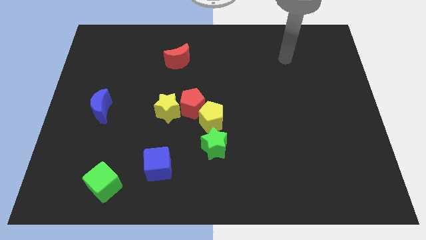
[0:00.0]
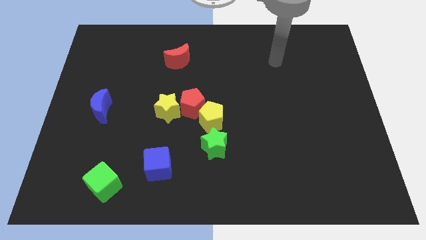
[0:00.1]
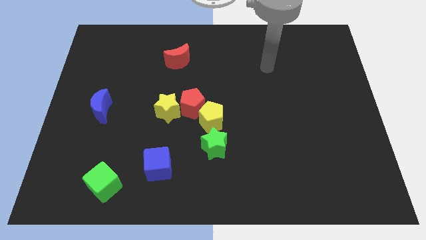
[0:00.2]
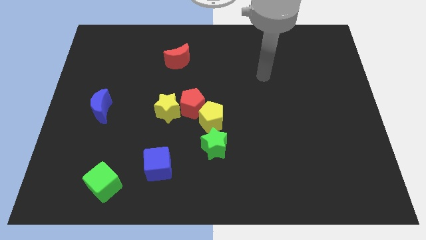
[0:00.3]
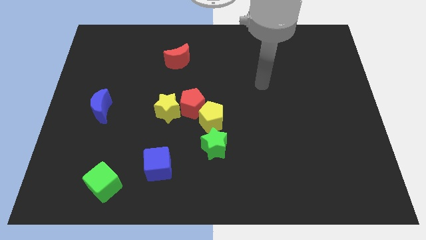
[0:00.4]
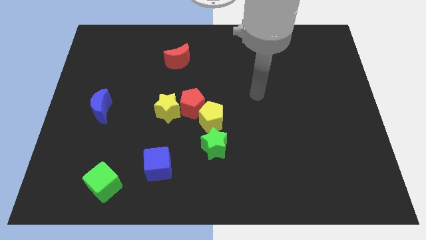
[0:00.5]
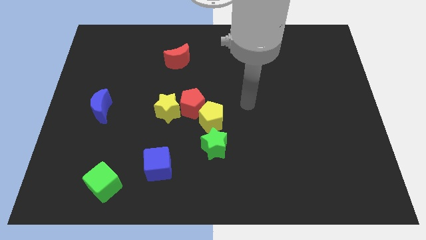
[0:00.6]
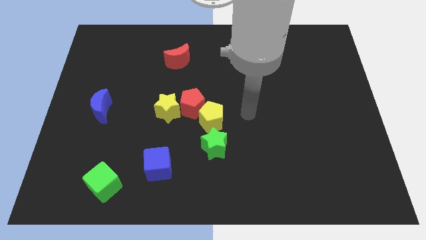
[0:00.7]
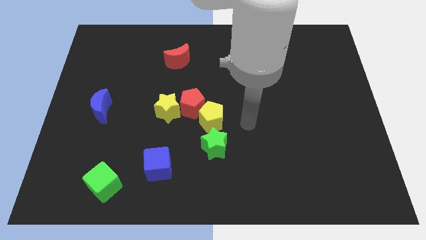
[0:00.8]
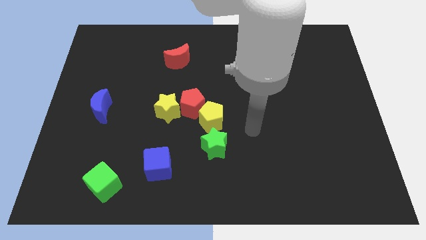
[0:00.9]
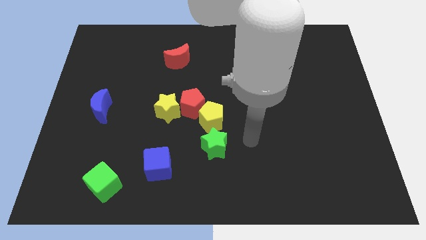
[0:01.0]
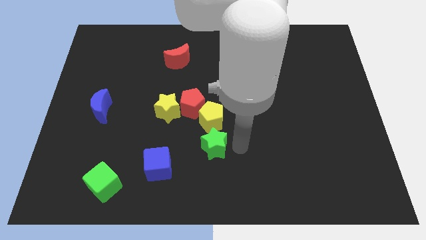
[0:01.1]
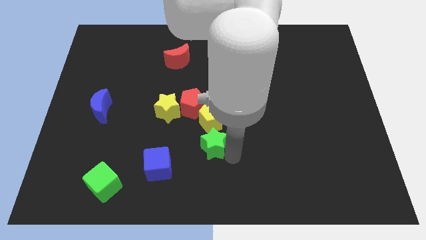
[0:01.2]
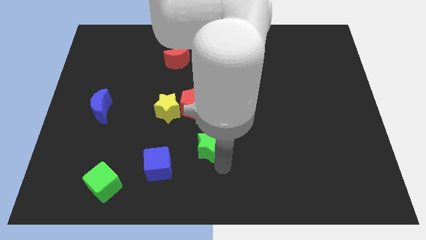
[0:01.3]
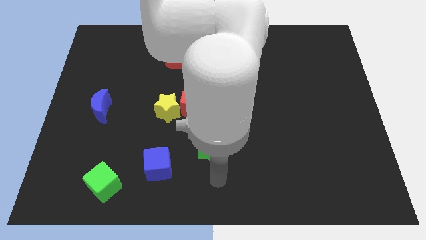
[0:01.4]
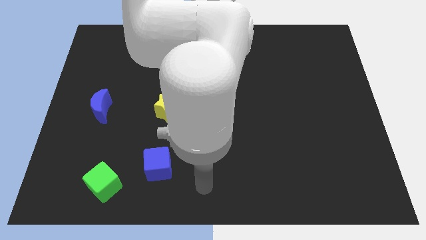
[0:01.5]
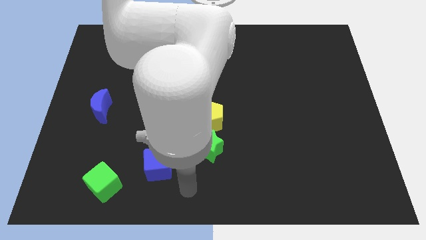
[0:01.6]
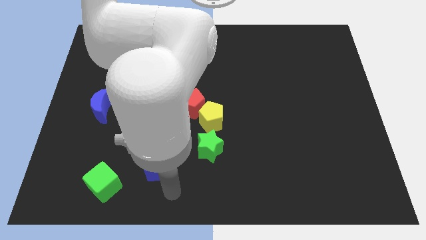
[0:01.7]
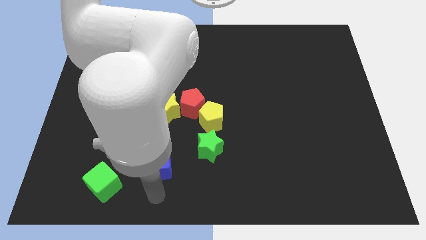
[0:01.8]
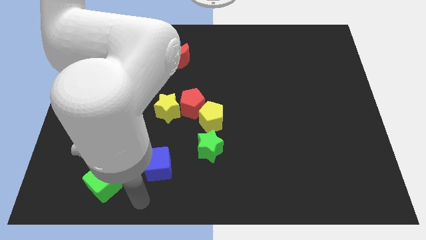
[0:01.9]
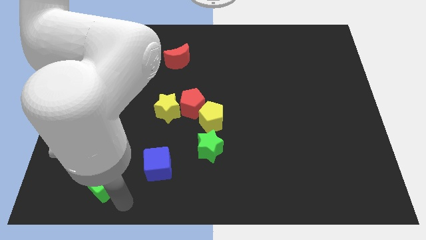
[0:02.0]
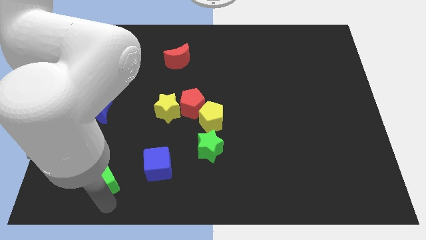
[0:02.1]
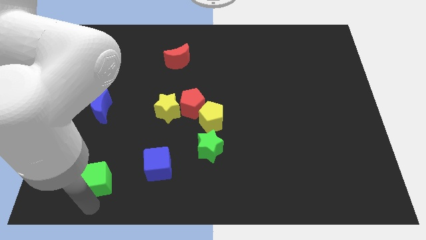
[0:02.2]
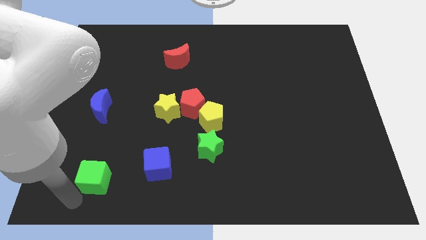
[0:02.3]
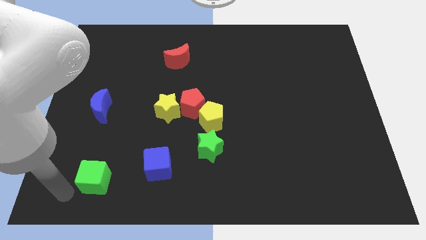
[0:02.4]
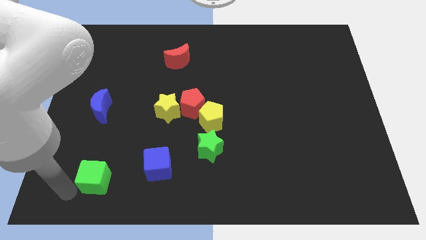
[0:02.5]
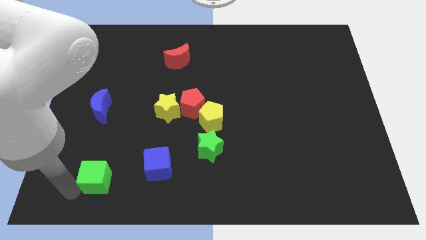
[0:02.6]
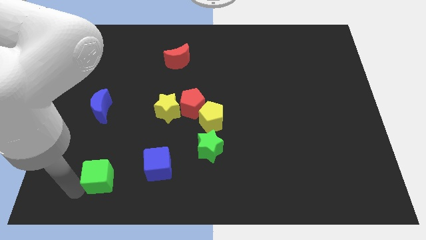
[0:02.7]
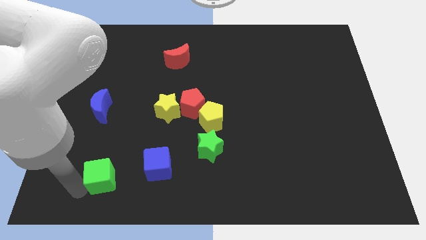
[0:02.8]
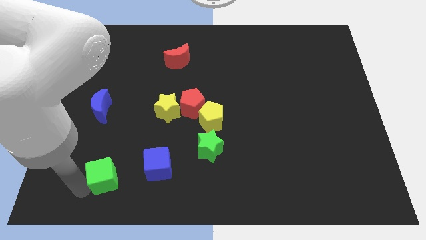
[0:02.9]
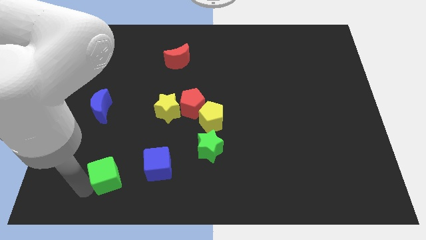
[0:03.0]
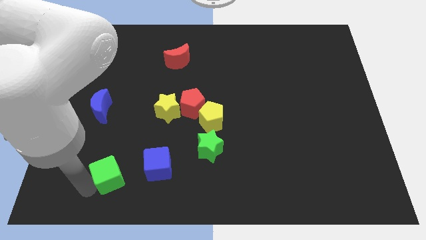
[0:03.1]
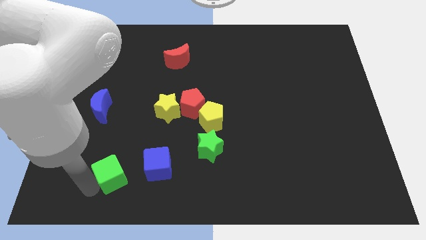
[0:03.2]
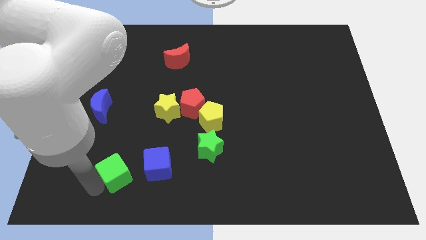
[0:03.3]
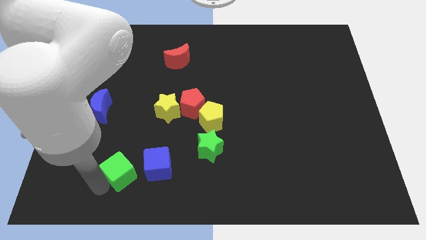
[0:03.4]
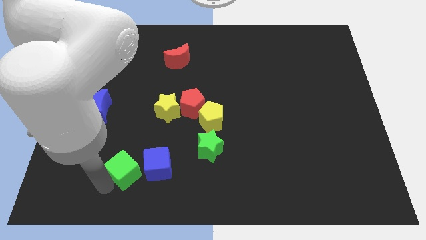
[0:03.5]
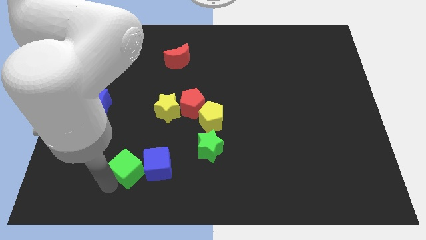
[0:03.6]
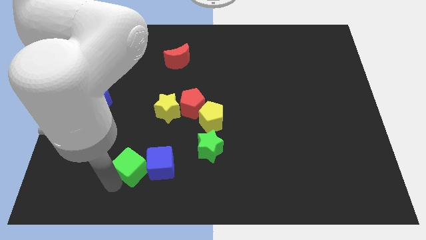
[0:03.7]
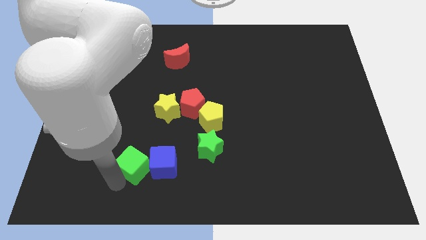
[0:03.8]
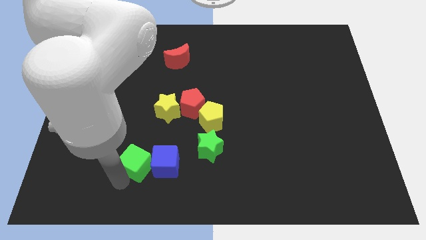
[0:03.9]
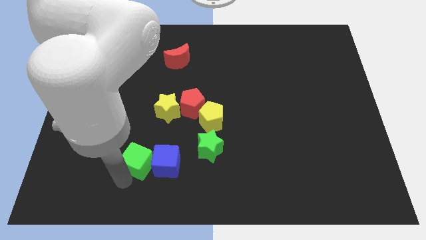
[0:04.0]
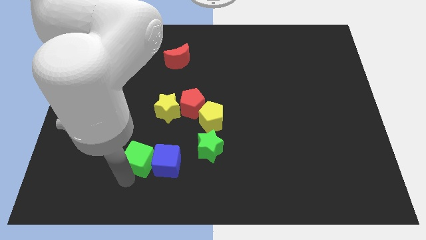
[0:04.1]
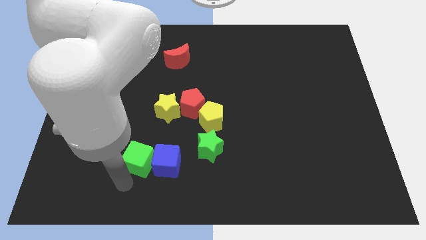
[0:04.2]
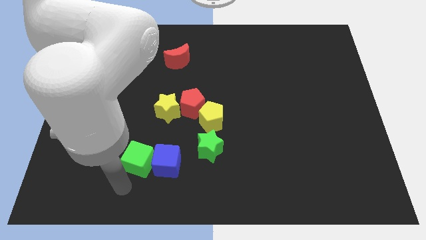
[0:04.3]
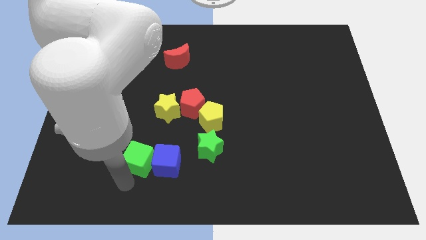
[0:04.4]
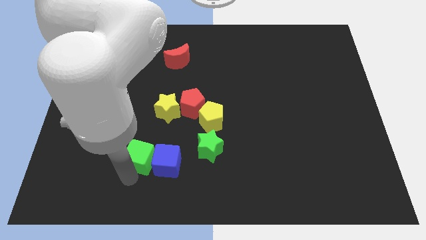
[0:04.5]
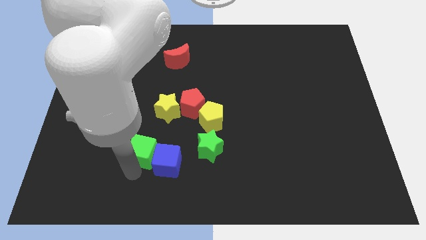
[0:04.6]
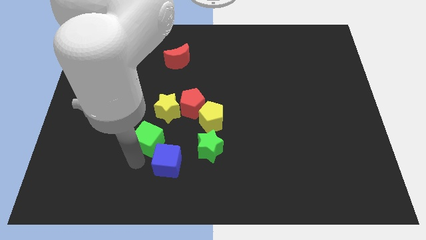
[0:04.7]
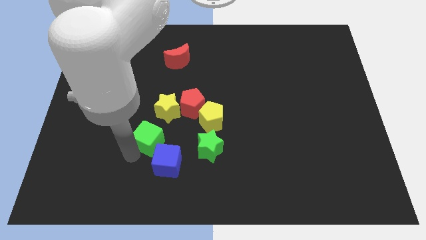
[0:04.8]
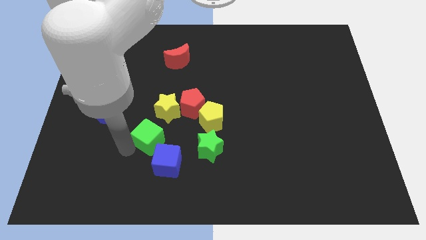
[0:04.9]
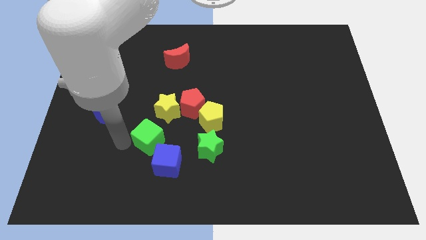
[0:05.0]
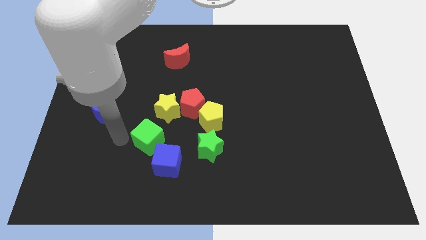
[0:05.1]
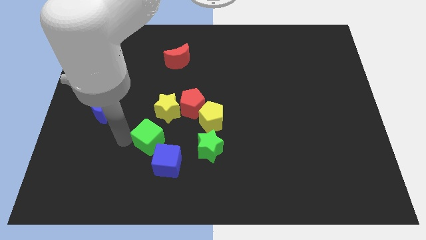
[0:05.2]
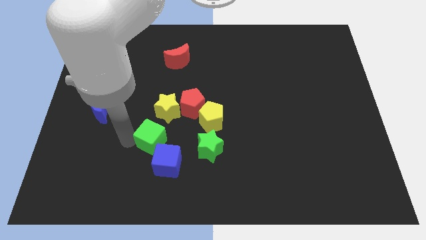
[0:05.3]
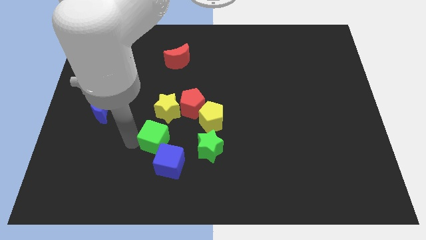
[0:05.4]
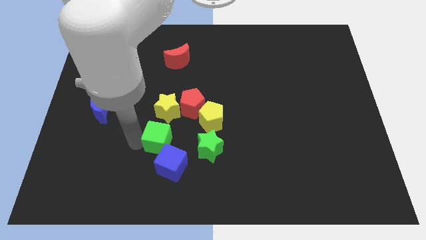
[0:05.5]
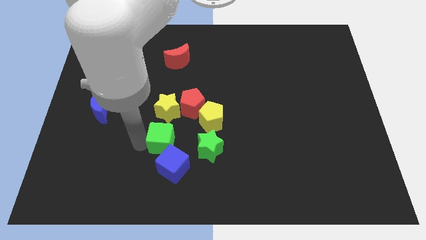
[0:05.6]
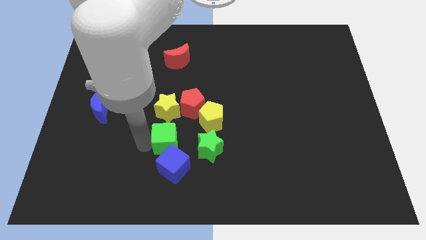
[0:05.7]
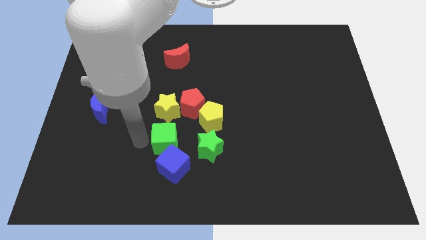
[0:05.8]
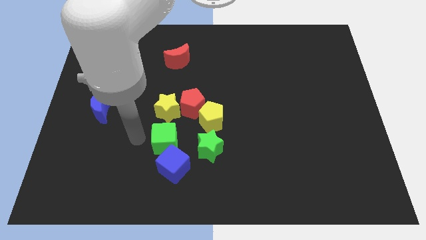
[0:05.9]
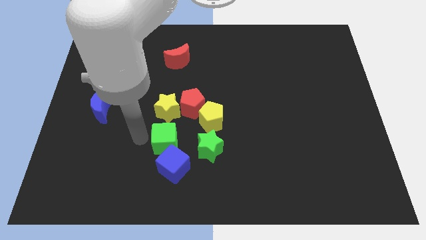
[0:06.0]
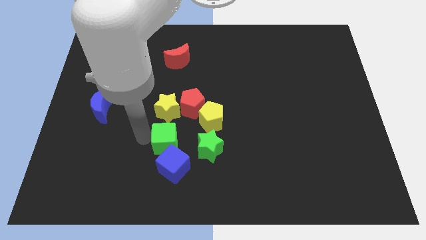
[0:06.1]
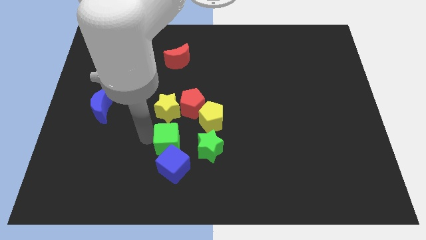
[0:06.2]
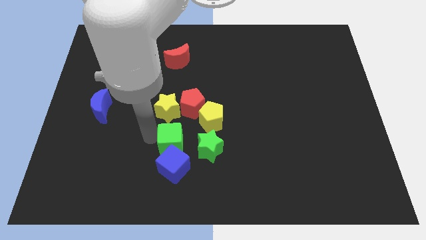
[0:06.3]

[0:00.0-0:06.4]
slide the green cube to the top right of the blue cube

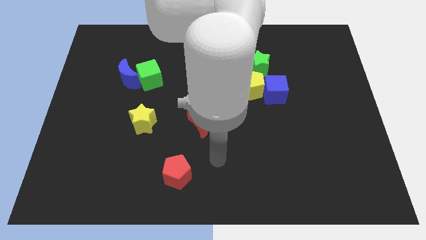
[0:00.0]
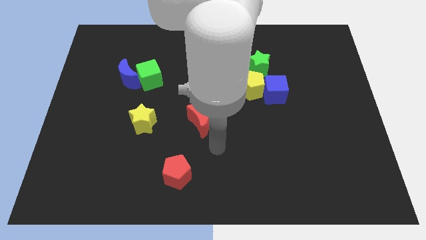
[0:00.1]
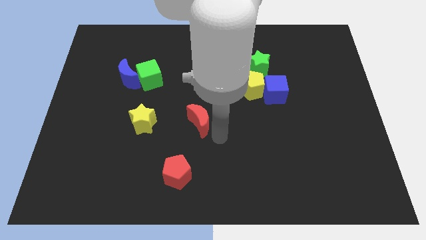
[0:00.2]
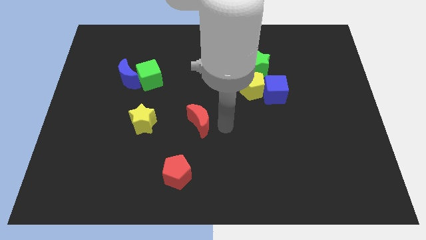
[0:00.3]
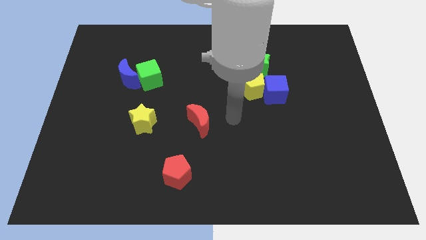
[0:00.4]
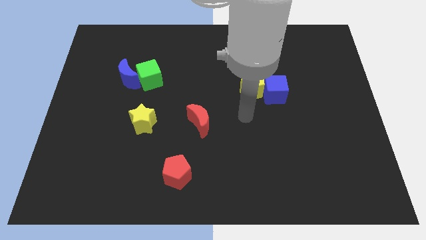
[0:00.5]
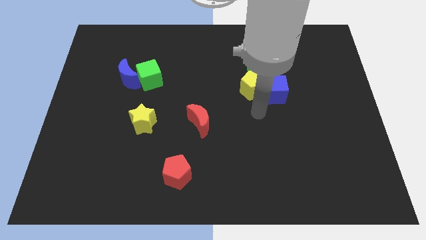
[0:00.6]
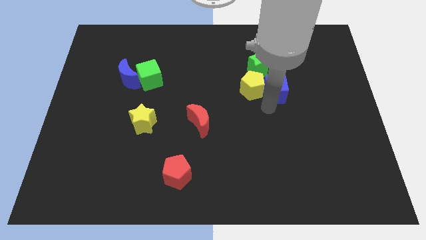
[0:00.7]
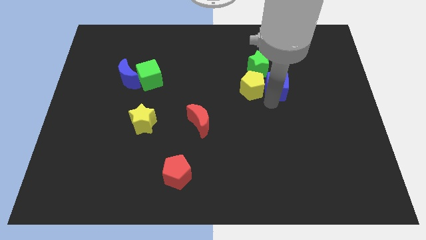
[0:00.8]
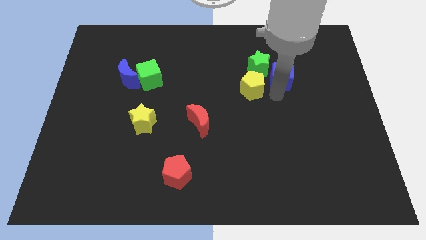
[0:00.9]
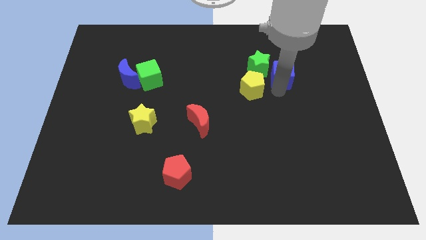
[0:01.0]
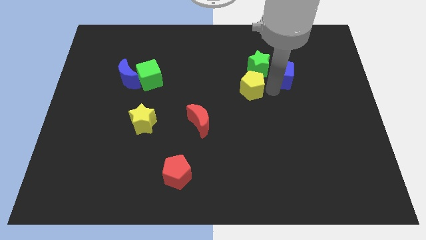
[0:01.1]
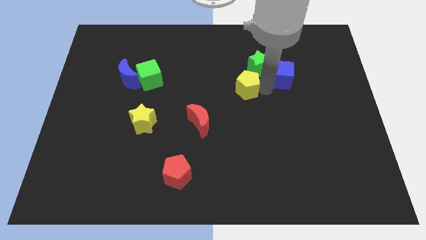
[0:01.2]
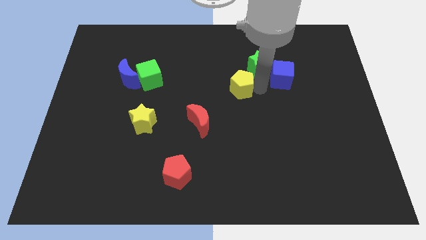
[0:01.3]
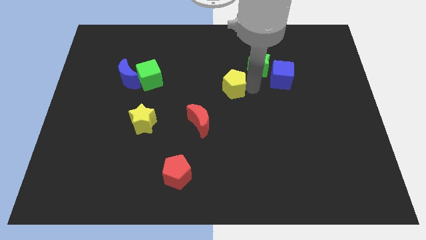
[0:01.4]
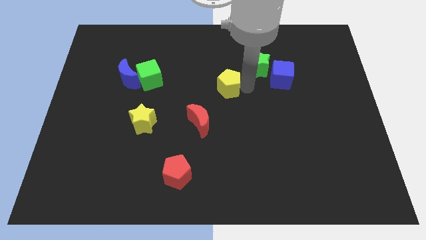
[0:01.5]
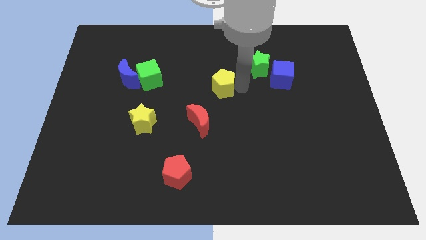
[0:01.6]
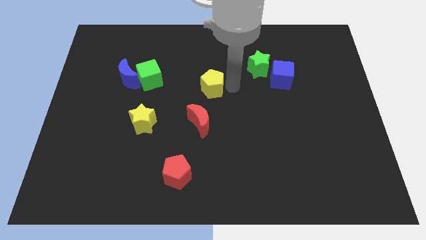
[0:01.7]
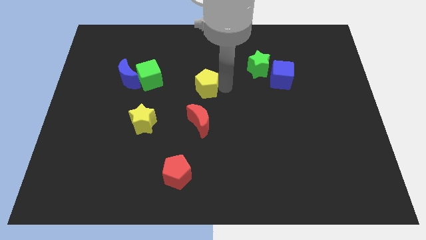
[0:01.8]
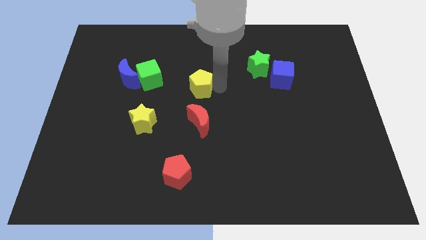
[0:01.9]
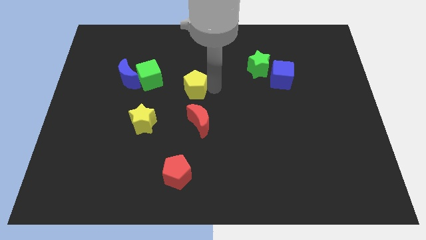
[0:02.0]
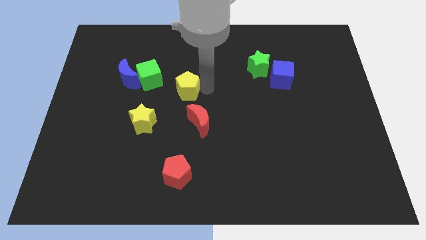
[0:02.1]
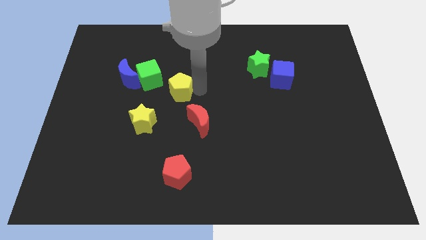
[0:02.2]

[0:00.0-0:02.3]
move the yellow pentagon to the right side of the blue moon
